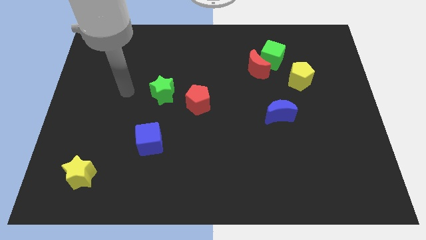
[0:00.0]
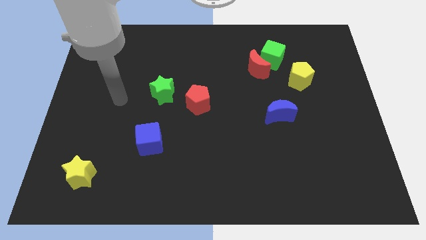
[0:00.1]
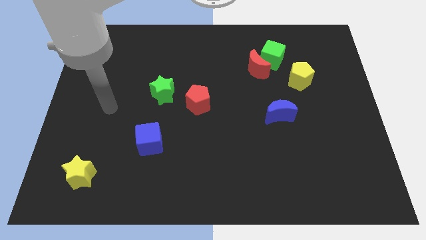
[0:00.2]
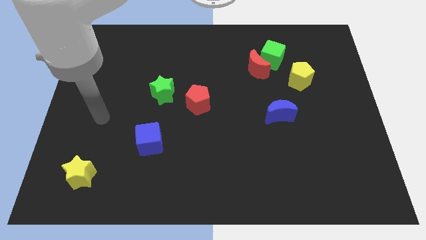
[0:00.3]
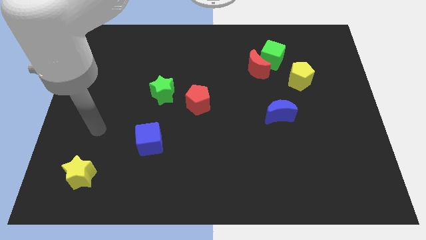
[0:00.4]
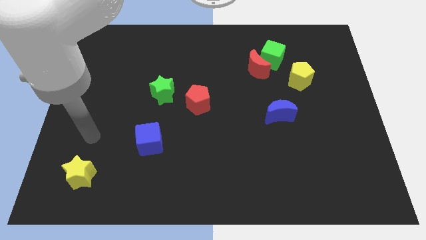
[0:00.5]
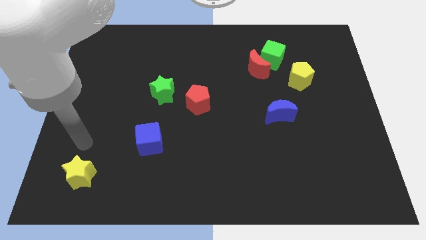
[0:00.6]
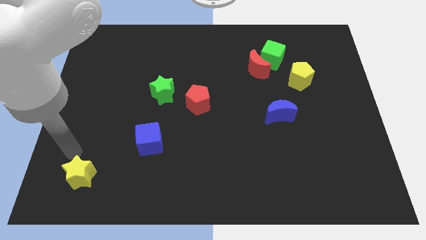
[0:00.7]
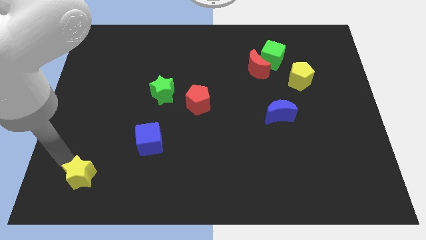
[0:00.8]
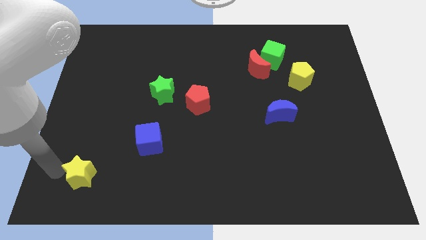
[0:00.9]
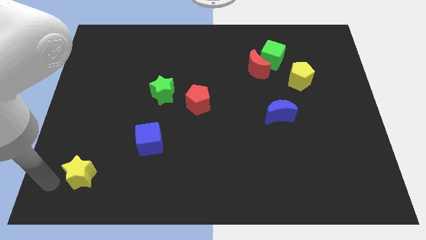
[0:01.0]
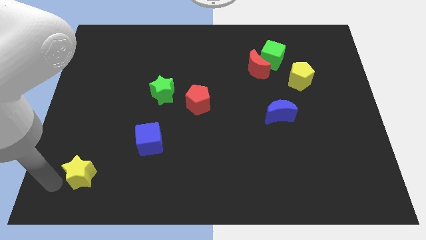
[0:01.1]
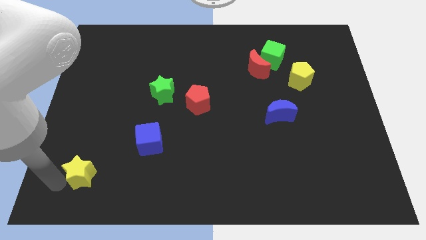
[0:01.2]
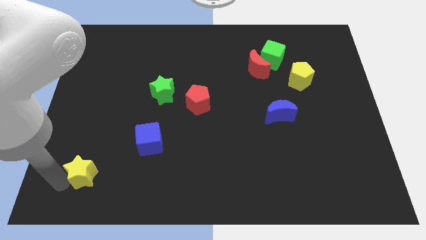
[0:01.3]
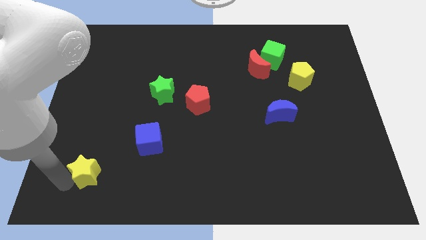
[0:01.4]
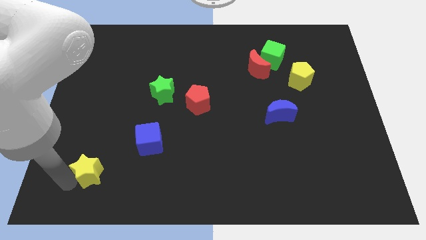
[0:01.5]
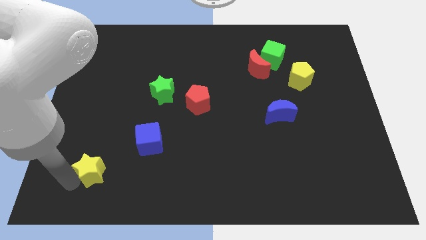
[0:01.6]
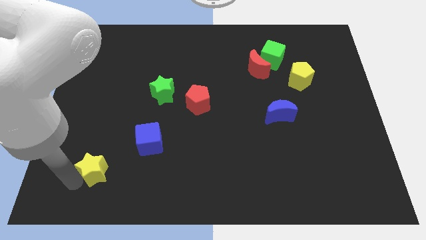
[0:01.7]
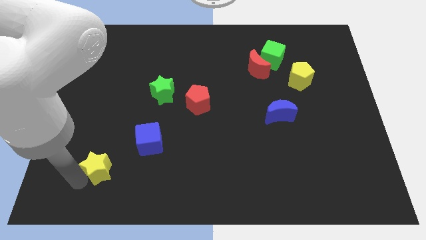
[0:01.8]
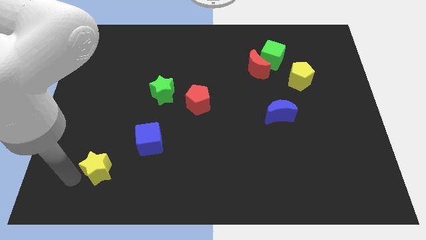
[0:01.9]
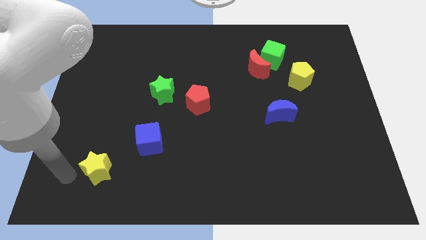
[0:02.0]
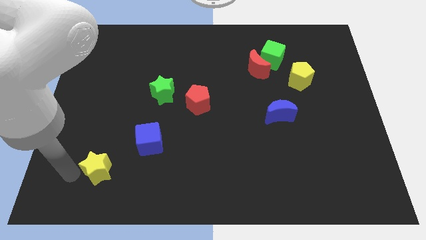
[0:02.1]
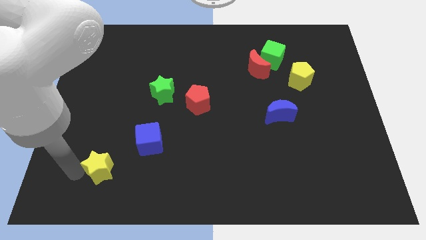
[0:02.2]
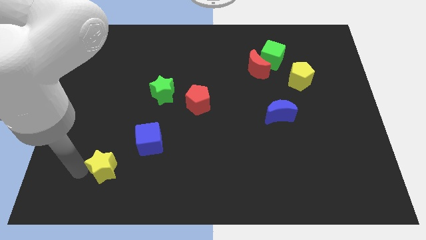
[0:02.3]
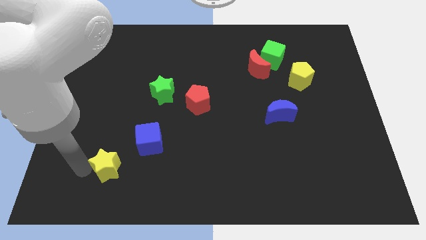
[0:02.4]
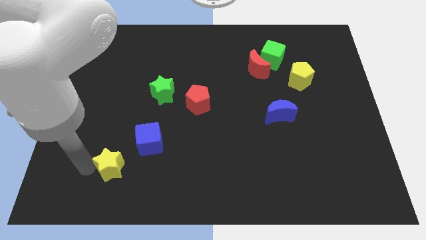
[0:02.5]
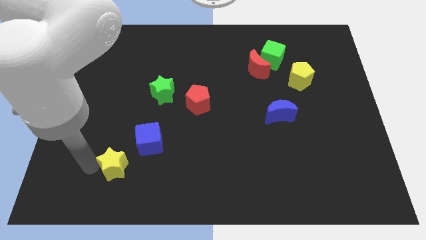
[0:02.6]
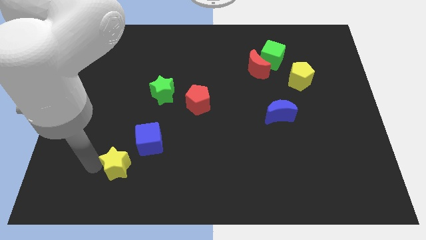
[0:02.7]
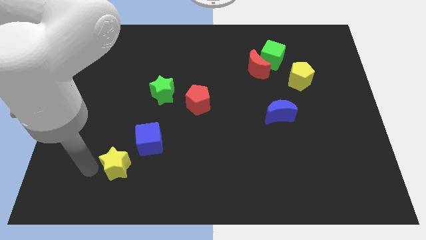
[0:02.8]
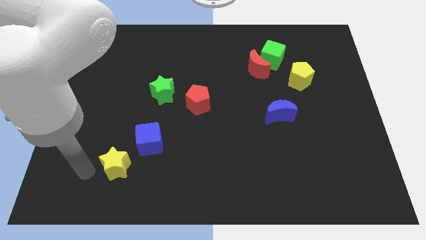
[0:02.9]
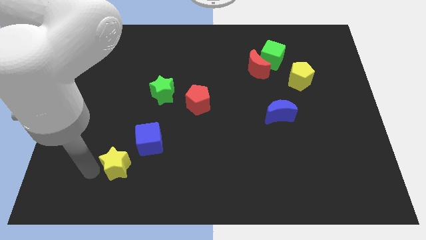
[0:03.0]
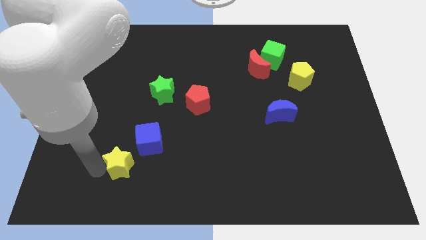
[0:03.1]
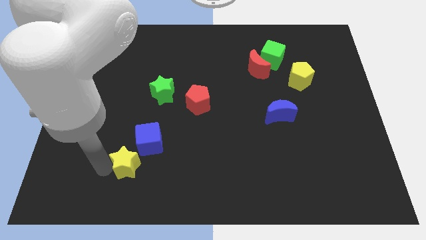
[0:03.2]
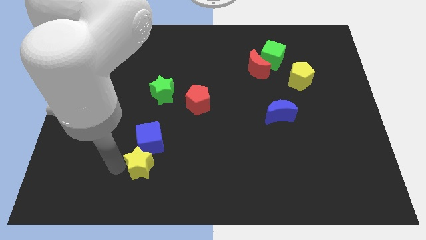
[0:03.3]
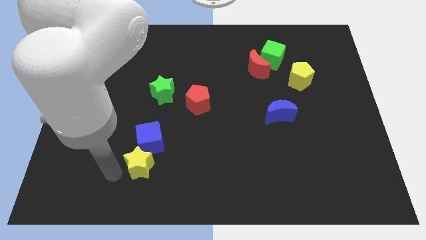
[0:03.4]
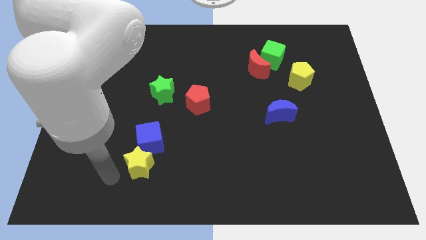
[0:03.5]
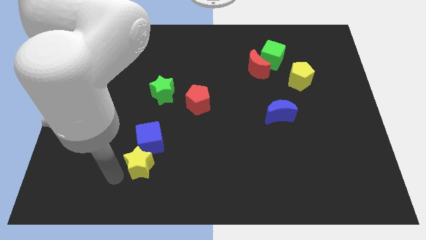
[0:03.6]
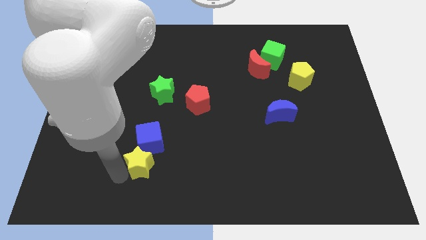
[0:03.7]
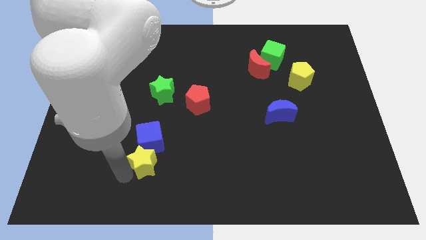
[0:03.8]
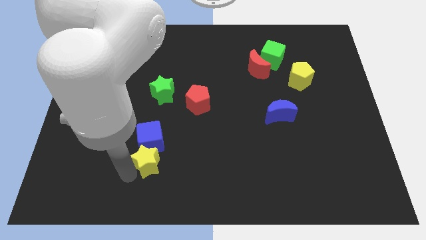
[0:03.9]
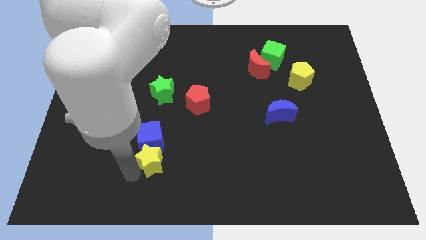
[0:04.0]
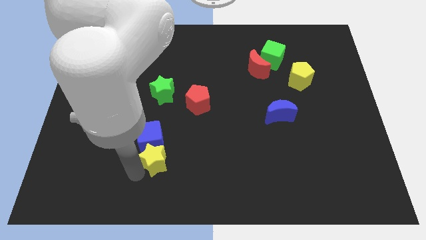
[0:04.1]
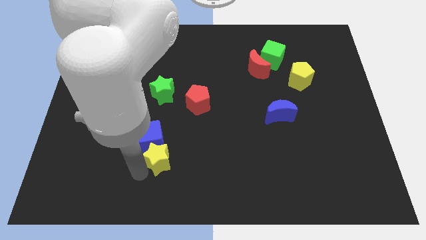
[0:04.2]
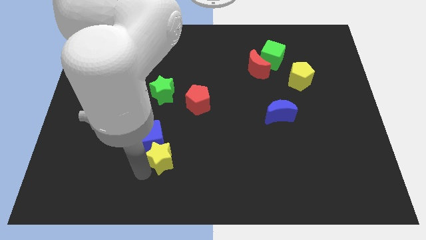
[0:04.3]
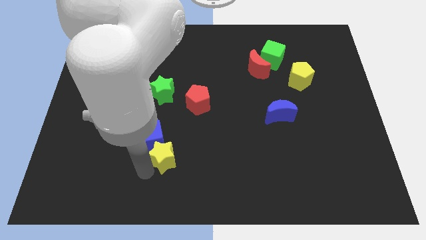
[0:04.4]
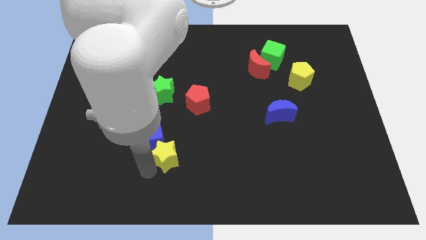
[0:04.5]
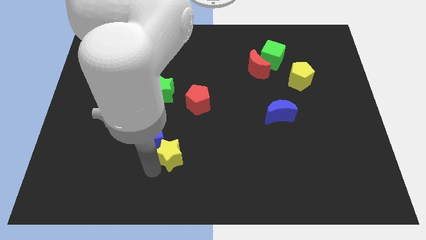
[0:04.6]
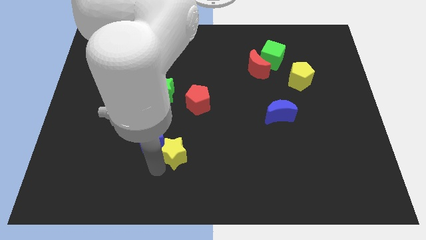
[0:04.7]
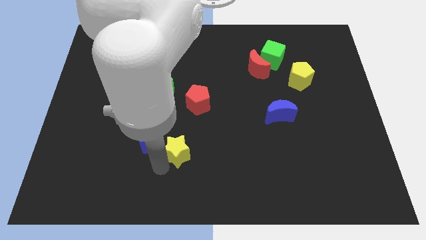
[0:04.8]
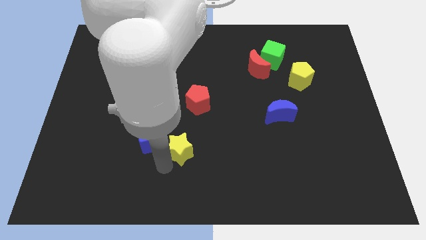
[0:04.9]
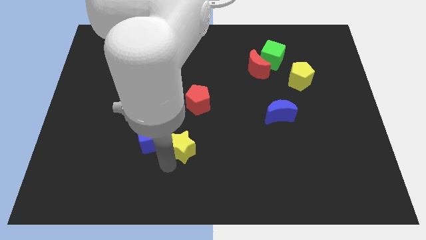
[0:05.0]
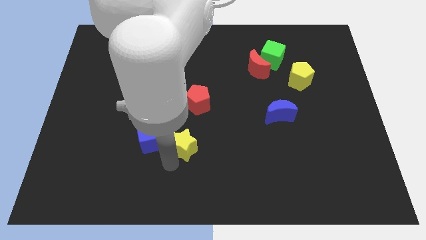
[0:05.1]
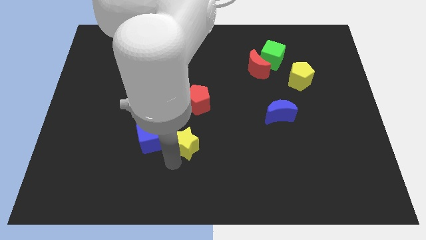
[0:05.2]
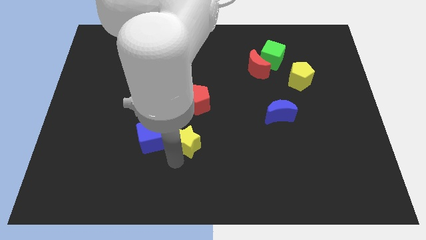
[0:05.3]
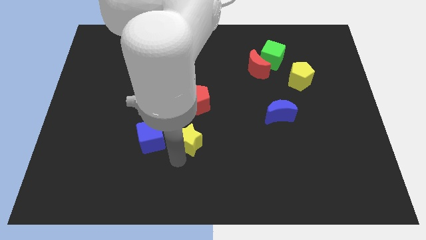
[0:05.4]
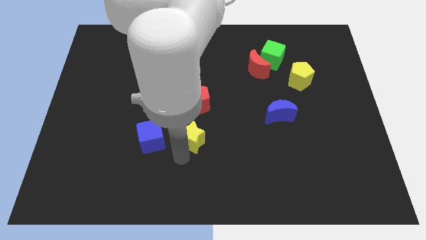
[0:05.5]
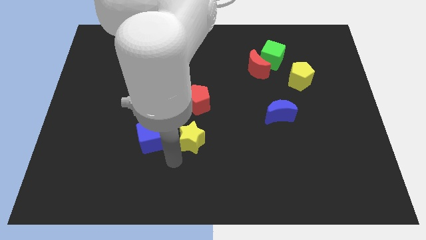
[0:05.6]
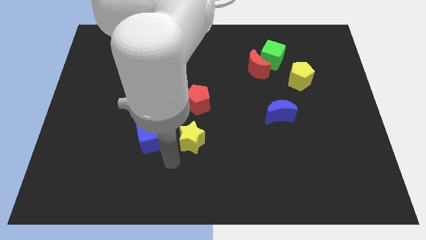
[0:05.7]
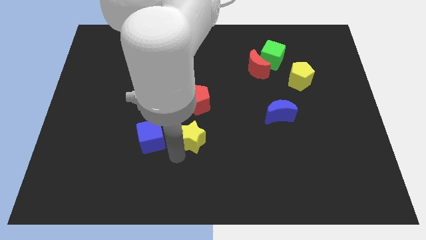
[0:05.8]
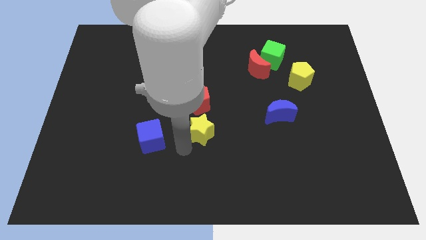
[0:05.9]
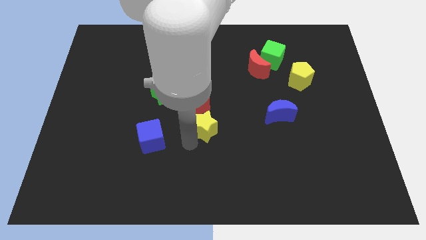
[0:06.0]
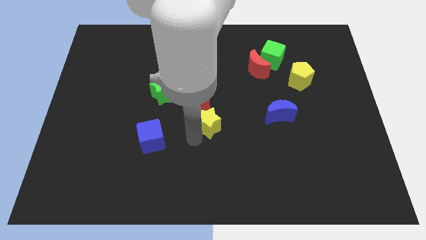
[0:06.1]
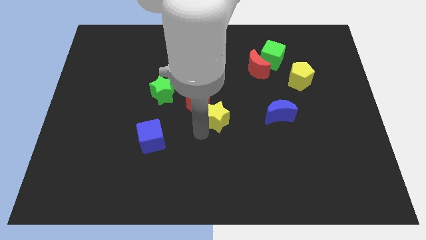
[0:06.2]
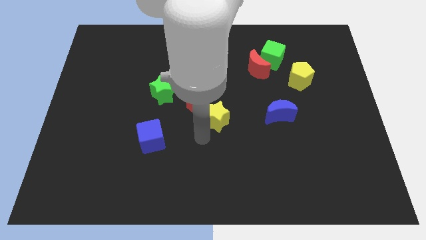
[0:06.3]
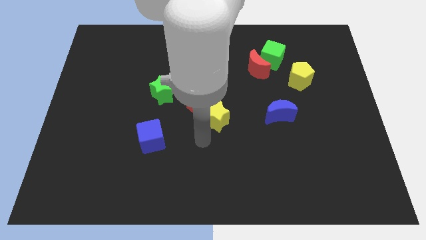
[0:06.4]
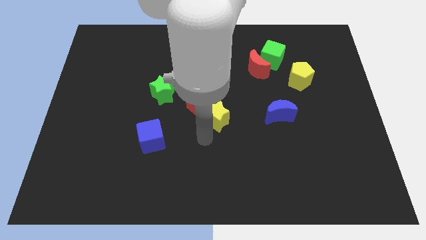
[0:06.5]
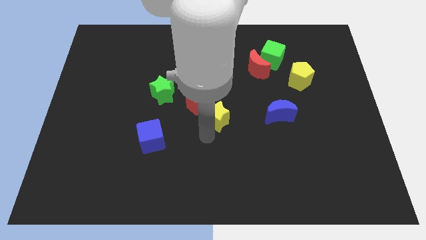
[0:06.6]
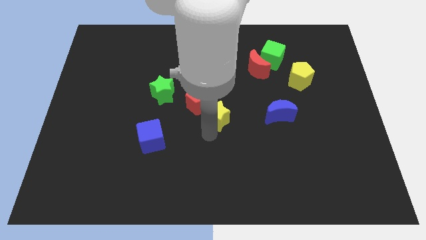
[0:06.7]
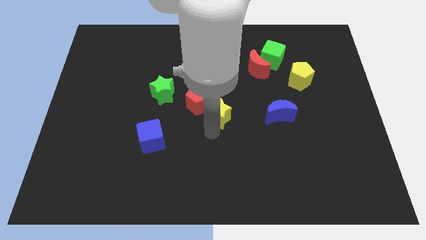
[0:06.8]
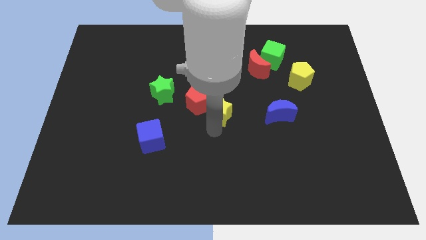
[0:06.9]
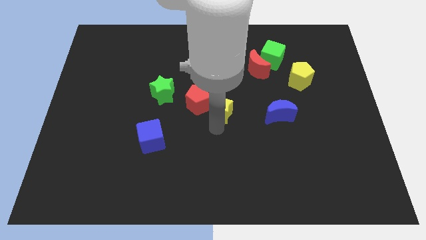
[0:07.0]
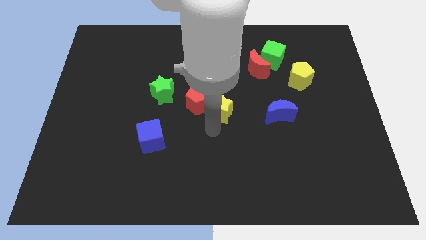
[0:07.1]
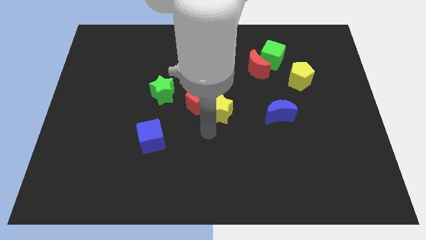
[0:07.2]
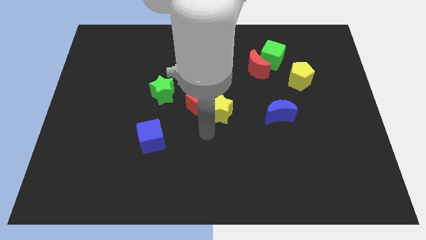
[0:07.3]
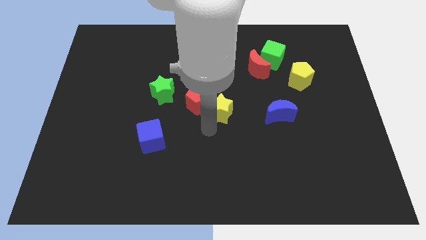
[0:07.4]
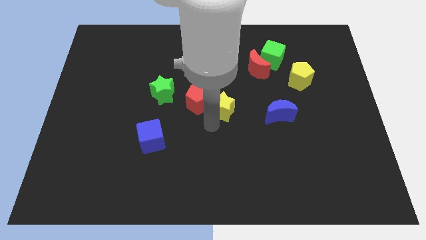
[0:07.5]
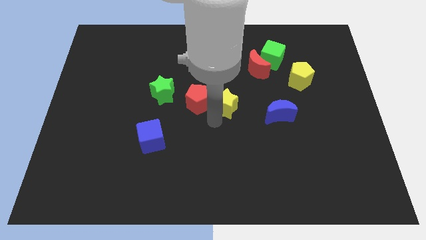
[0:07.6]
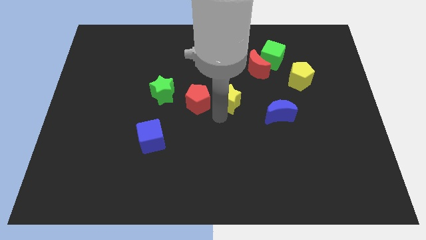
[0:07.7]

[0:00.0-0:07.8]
slide the yellow star to the top right side of the red pentagon

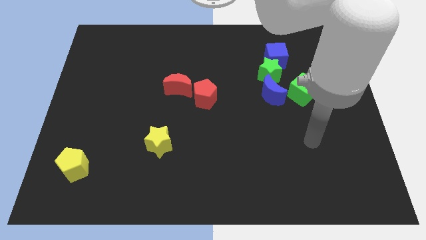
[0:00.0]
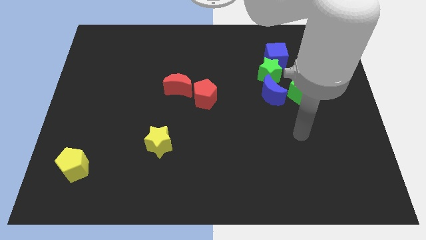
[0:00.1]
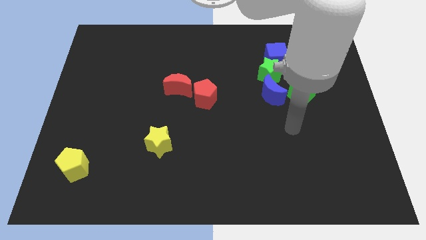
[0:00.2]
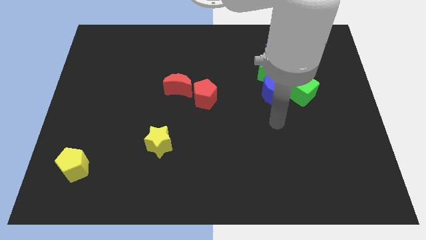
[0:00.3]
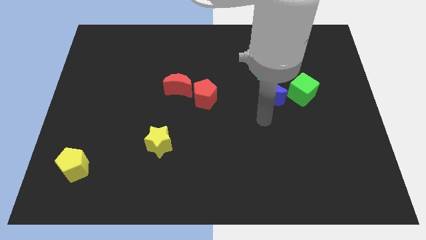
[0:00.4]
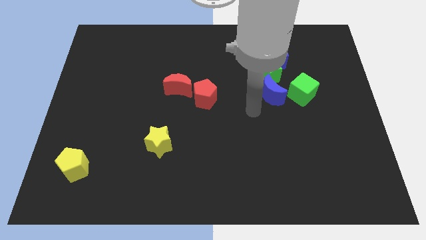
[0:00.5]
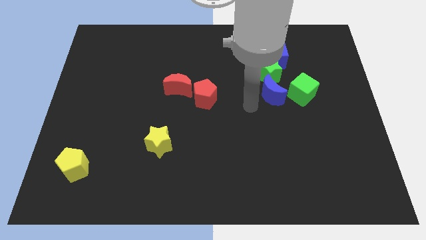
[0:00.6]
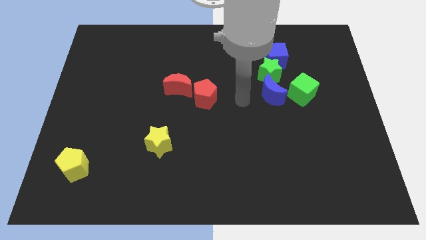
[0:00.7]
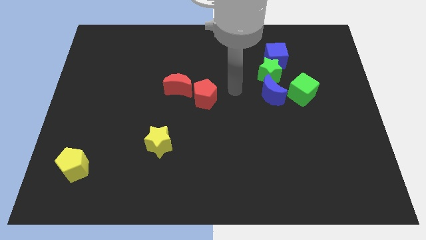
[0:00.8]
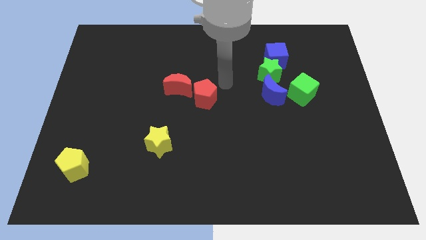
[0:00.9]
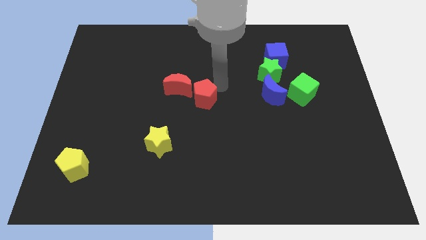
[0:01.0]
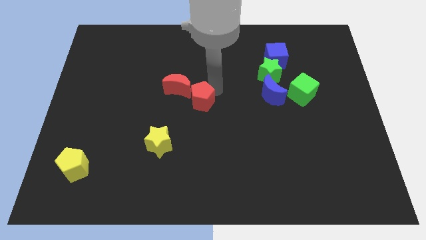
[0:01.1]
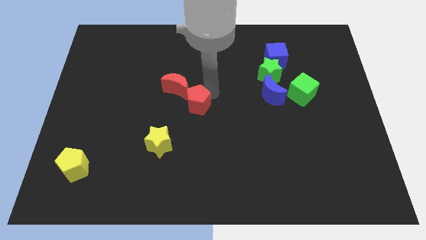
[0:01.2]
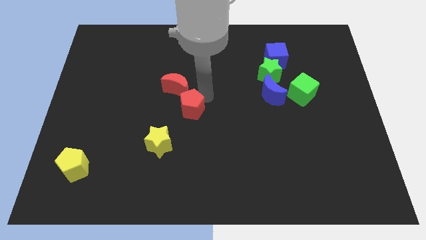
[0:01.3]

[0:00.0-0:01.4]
put the red pentagon to the top right of the yellow star
